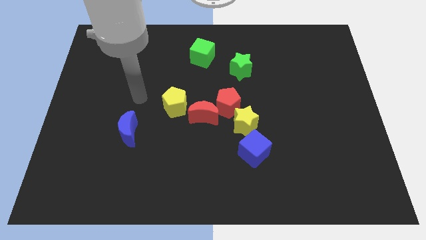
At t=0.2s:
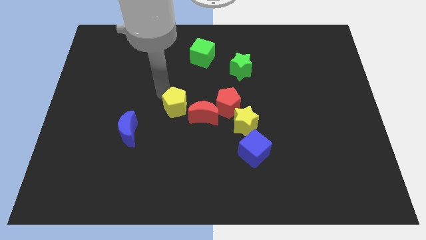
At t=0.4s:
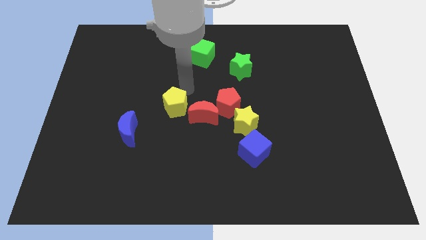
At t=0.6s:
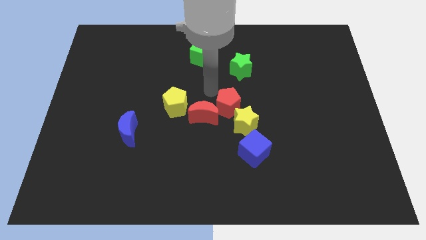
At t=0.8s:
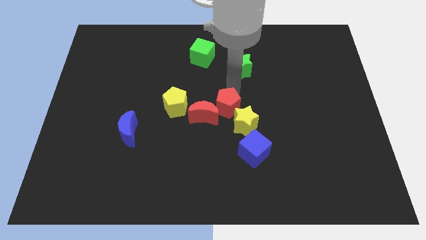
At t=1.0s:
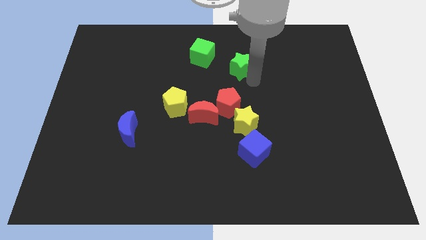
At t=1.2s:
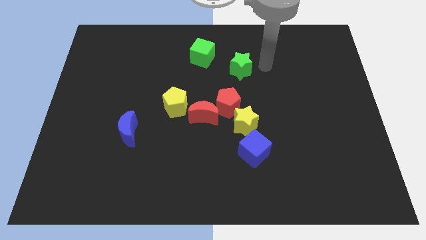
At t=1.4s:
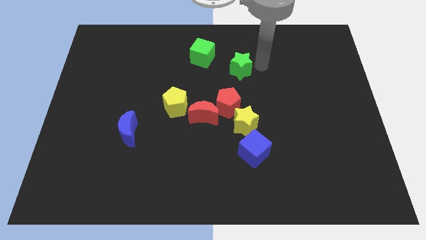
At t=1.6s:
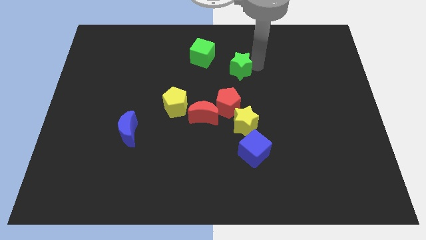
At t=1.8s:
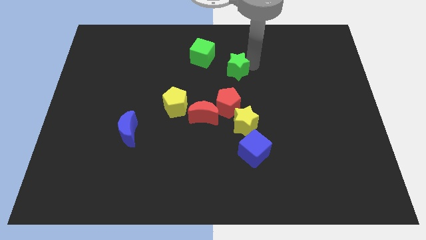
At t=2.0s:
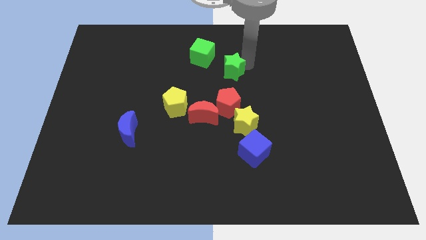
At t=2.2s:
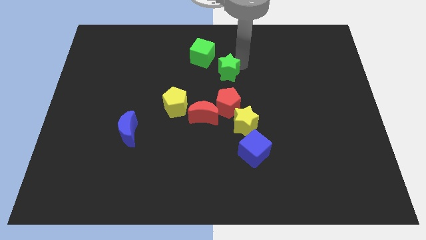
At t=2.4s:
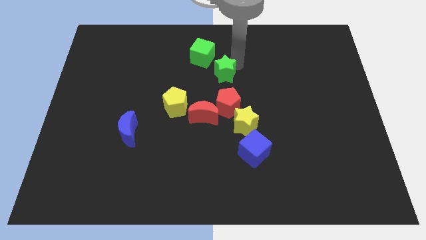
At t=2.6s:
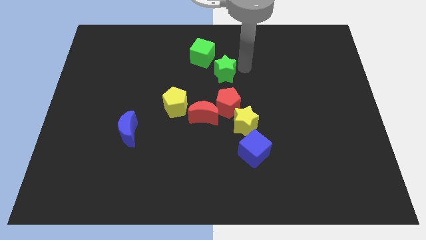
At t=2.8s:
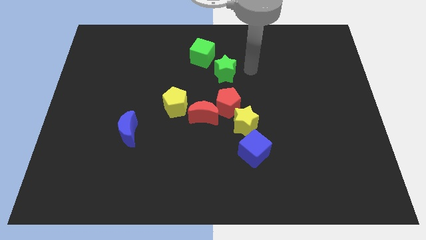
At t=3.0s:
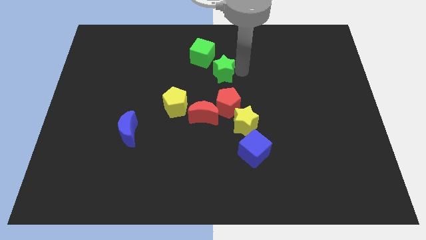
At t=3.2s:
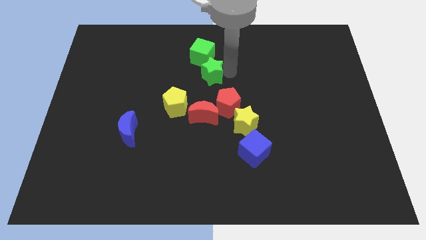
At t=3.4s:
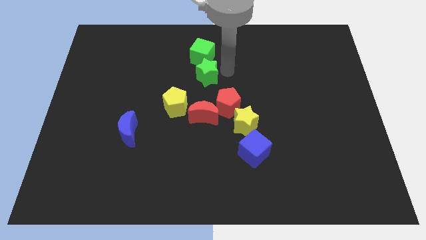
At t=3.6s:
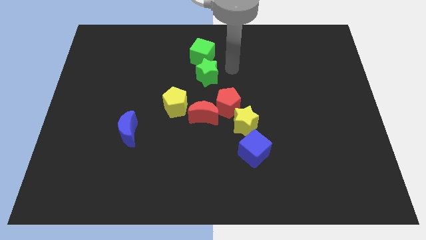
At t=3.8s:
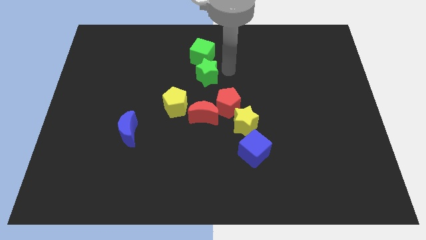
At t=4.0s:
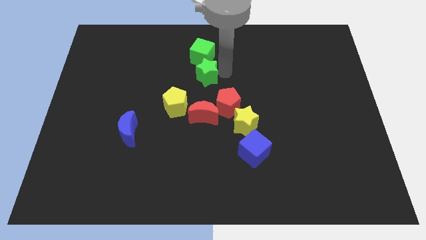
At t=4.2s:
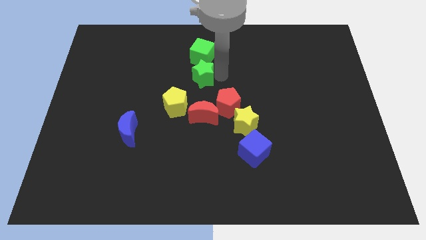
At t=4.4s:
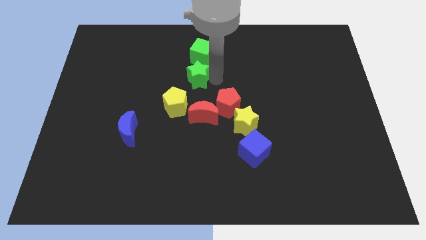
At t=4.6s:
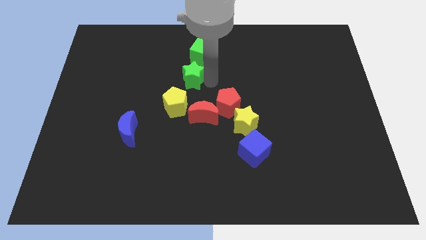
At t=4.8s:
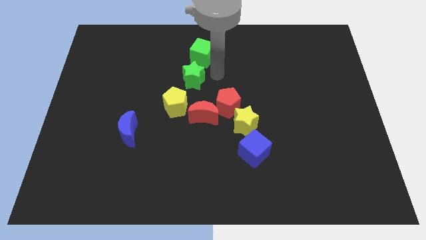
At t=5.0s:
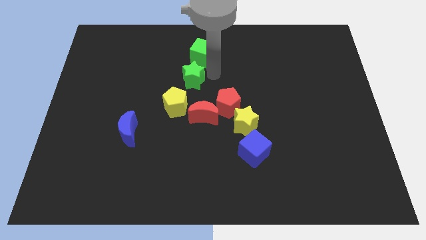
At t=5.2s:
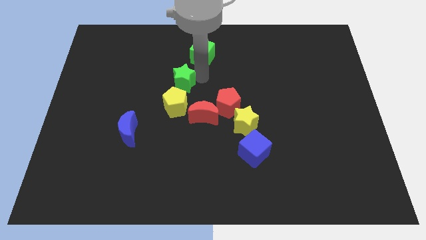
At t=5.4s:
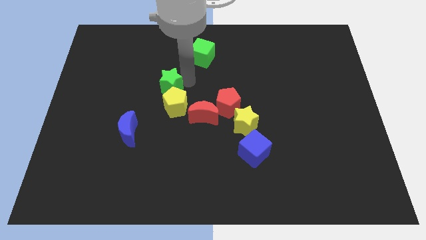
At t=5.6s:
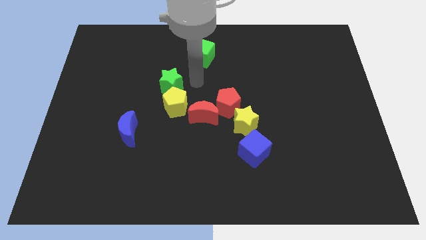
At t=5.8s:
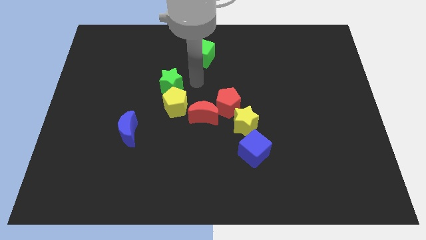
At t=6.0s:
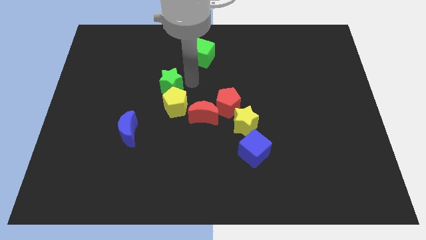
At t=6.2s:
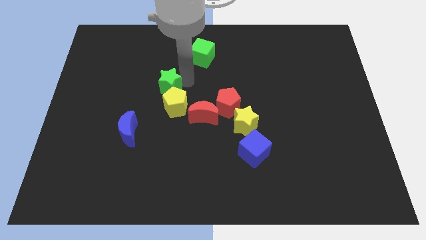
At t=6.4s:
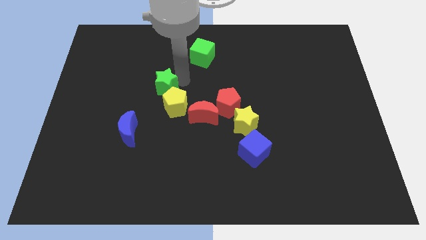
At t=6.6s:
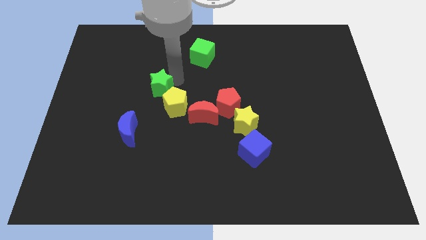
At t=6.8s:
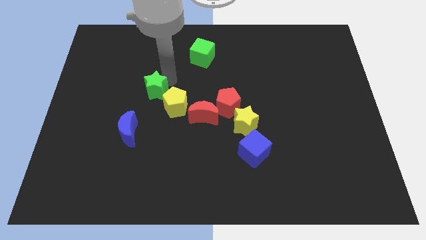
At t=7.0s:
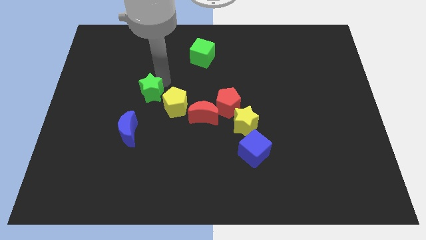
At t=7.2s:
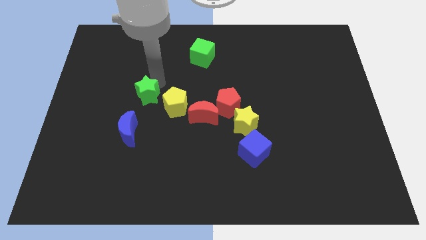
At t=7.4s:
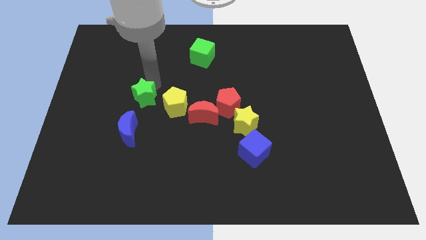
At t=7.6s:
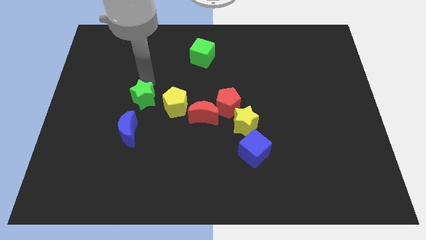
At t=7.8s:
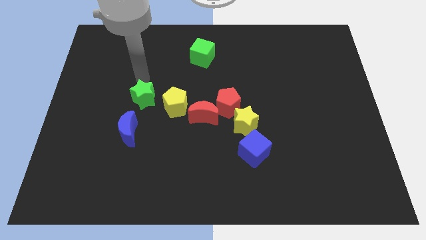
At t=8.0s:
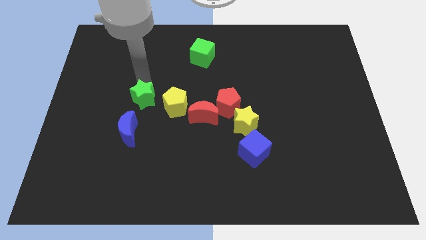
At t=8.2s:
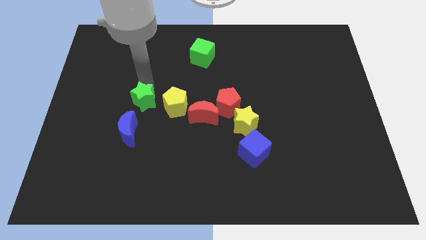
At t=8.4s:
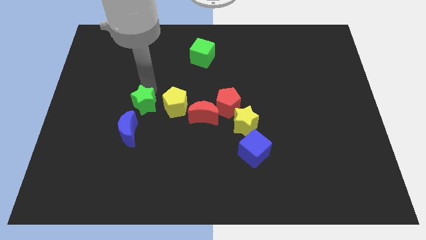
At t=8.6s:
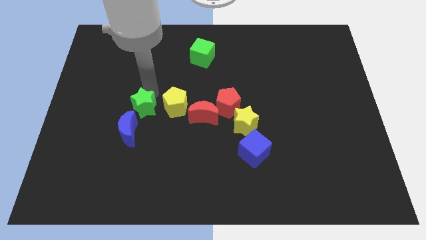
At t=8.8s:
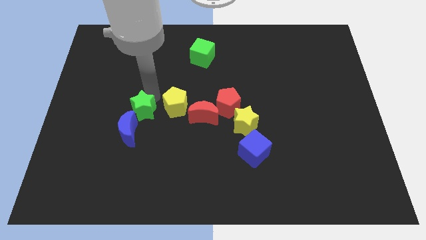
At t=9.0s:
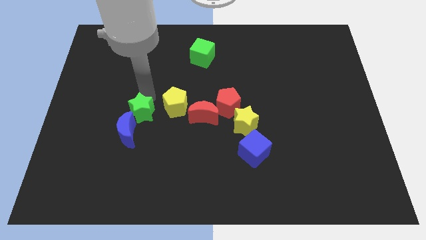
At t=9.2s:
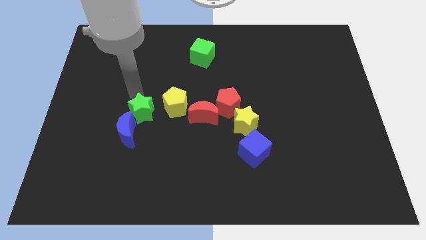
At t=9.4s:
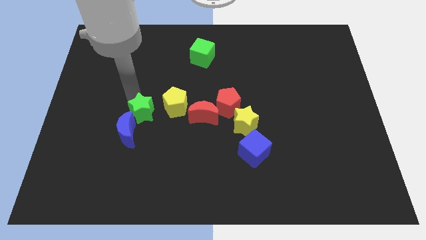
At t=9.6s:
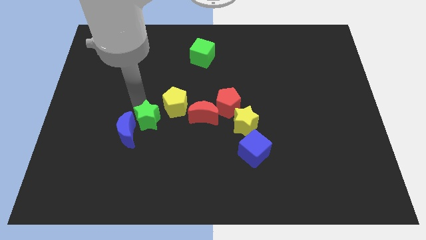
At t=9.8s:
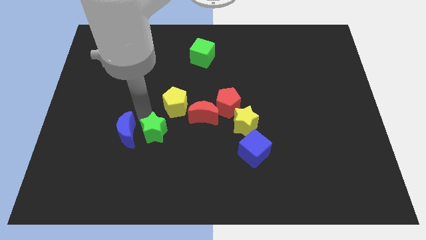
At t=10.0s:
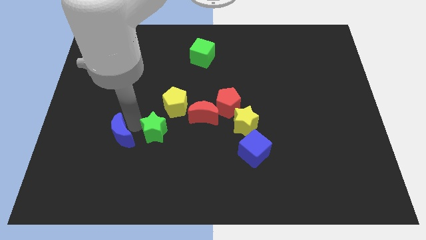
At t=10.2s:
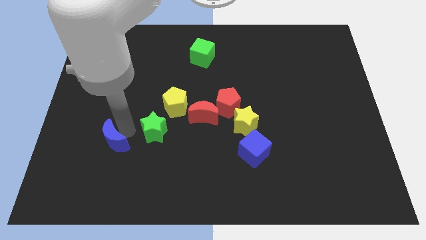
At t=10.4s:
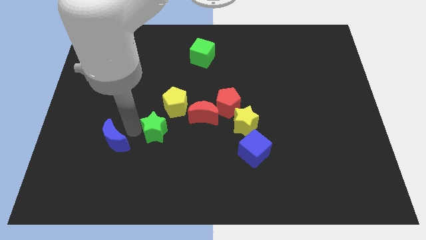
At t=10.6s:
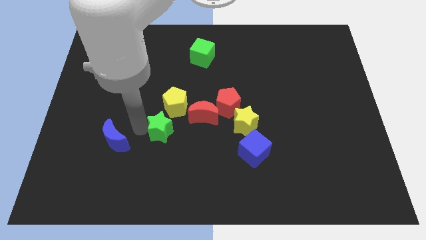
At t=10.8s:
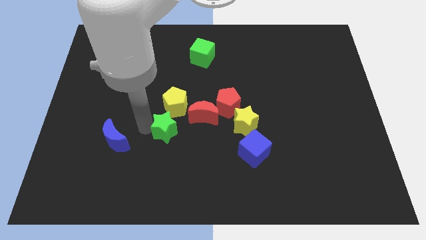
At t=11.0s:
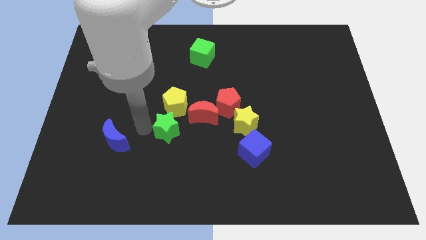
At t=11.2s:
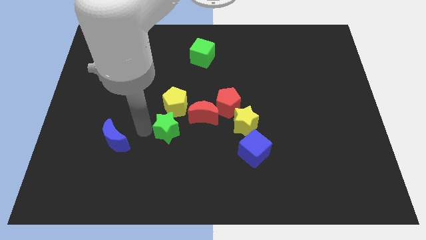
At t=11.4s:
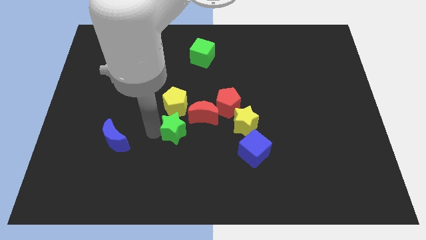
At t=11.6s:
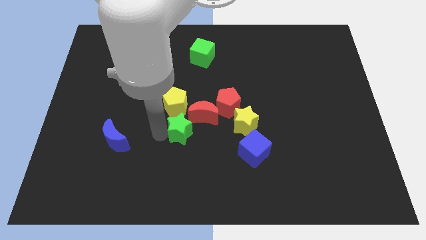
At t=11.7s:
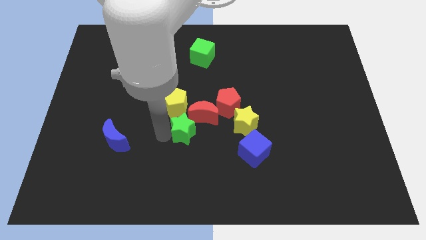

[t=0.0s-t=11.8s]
move the green star to the bottom left side of the red pentagon

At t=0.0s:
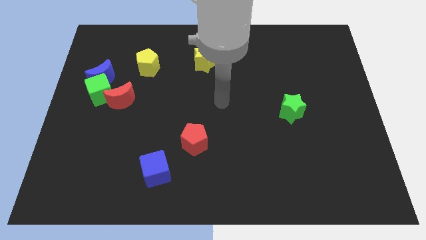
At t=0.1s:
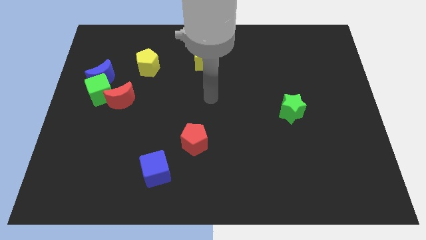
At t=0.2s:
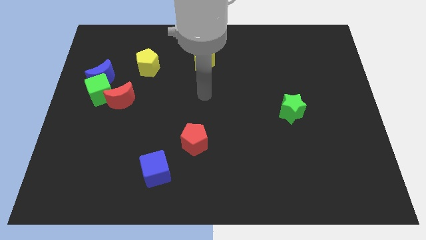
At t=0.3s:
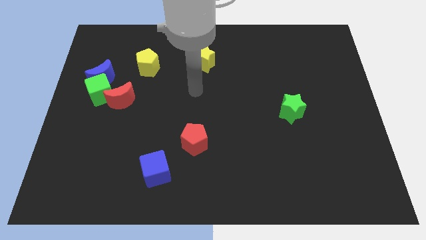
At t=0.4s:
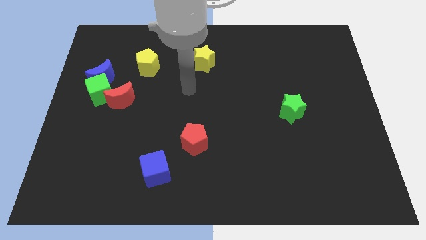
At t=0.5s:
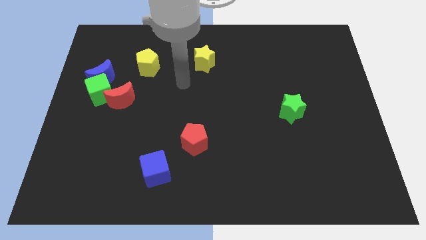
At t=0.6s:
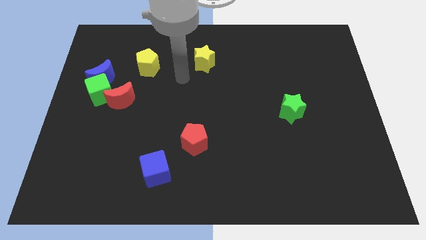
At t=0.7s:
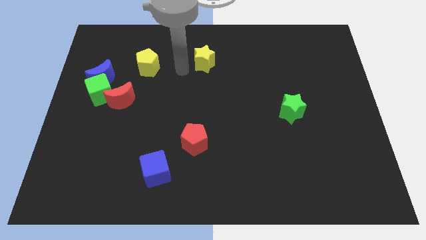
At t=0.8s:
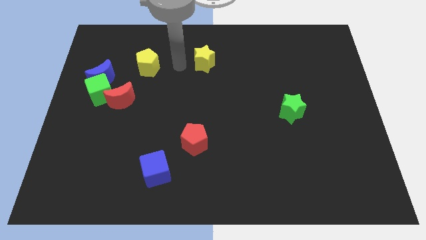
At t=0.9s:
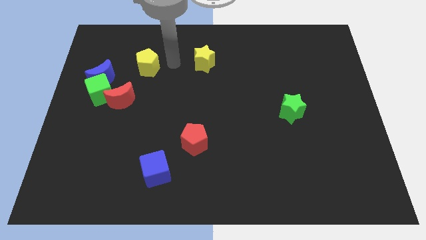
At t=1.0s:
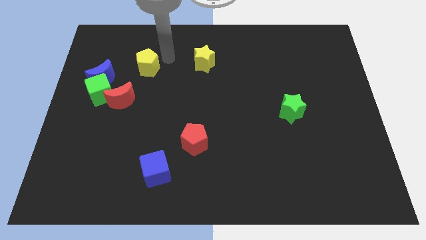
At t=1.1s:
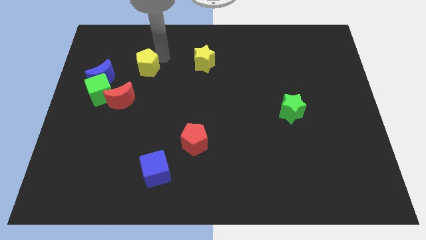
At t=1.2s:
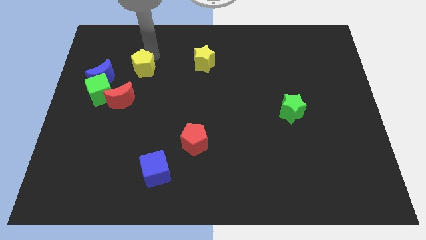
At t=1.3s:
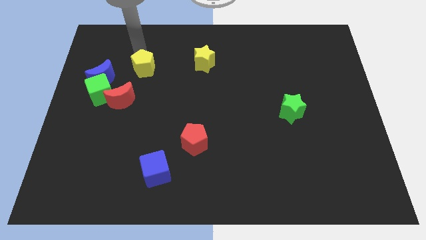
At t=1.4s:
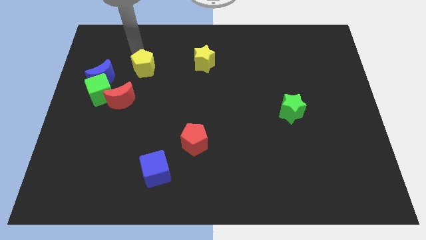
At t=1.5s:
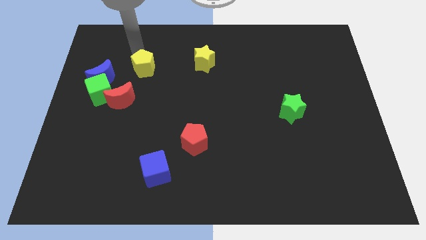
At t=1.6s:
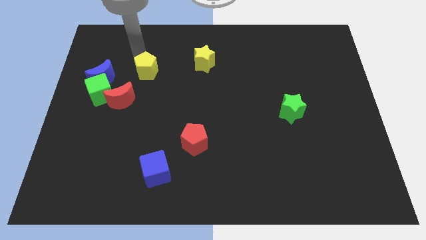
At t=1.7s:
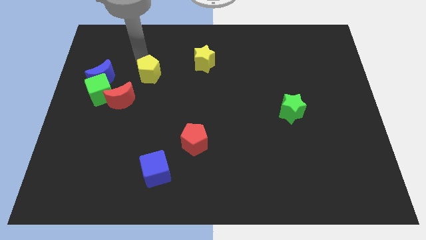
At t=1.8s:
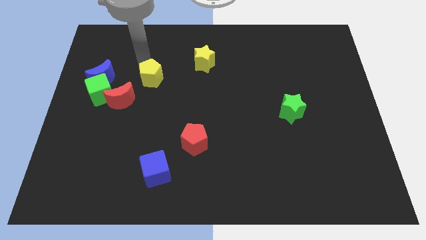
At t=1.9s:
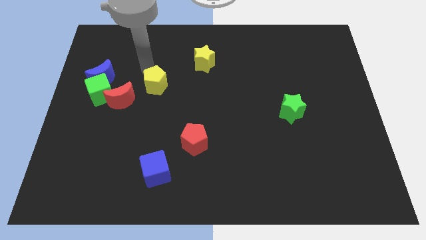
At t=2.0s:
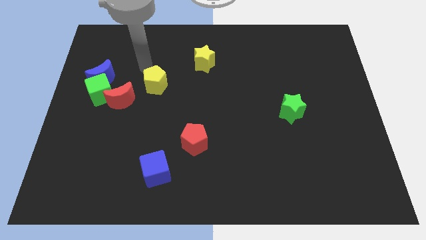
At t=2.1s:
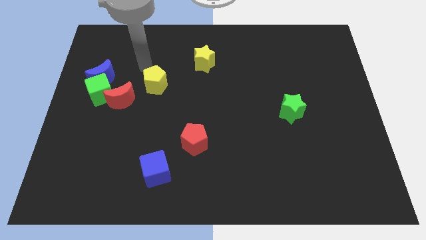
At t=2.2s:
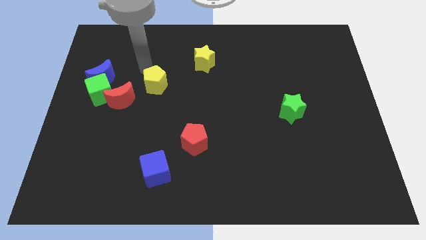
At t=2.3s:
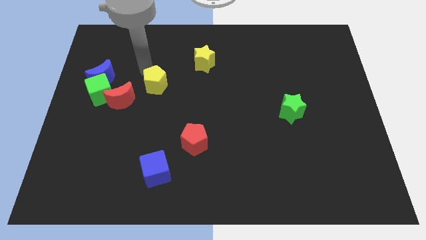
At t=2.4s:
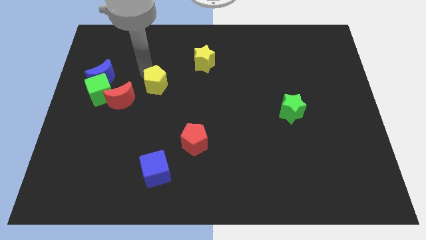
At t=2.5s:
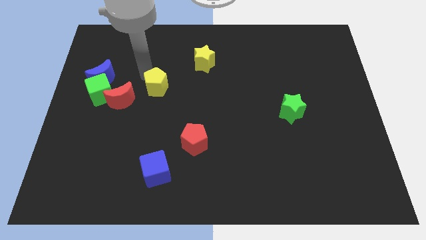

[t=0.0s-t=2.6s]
move the yellow pentagon just right of the red moon
